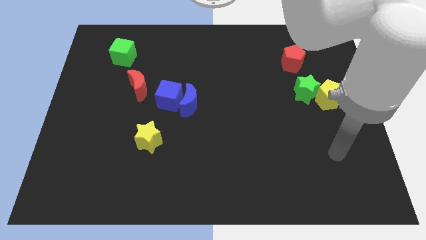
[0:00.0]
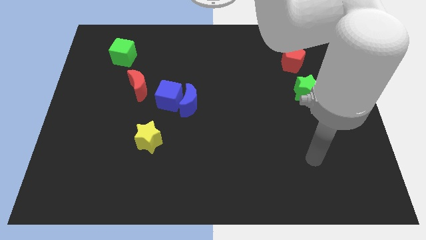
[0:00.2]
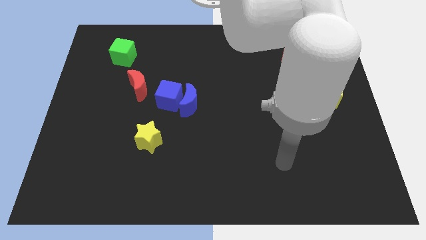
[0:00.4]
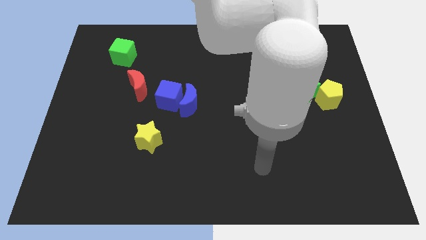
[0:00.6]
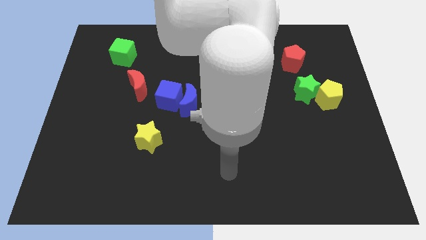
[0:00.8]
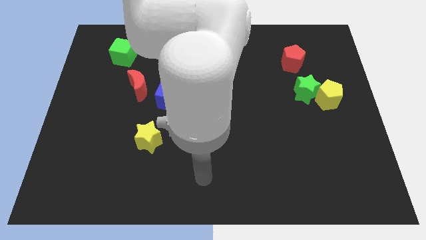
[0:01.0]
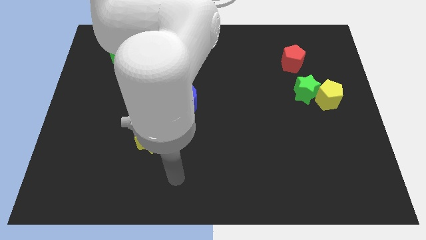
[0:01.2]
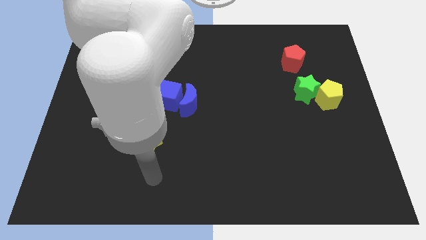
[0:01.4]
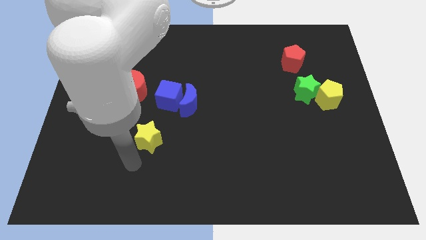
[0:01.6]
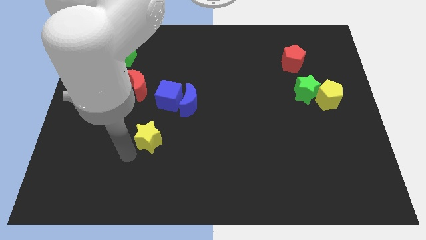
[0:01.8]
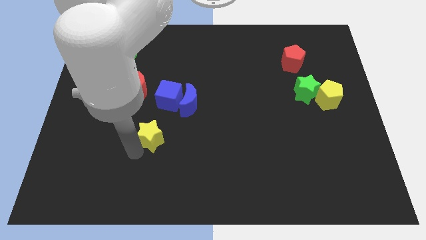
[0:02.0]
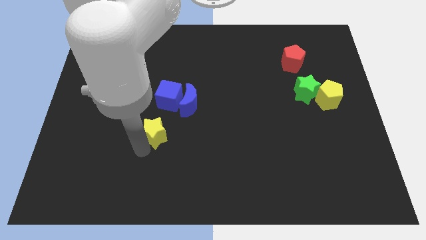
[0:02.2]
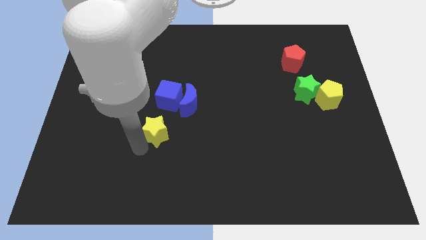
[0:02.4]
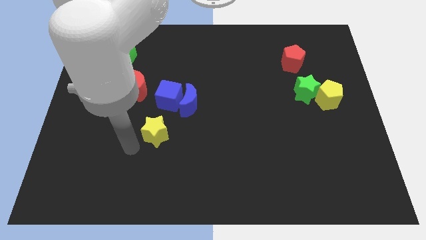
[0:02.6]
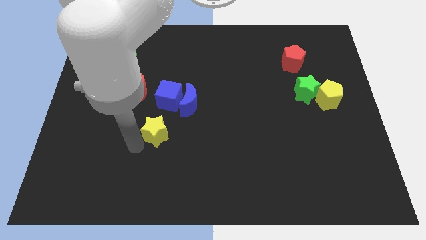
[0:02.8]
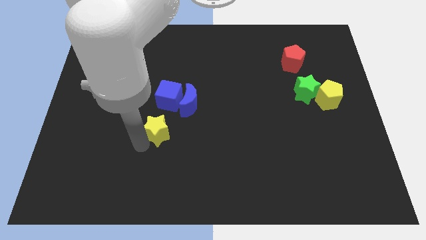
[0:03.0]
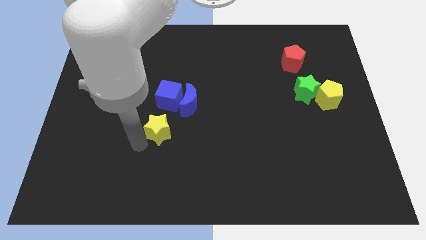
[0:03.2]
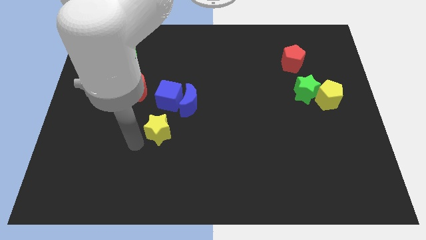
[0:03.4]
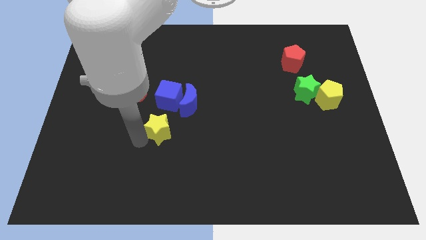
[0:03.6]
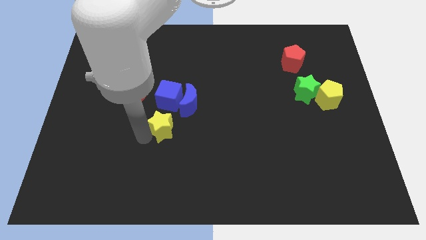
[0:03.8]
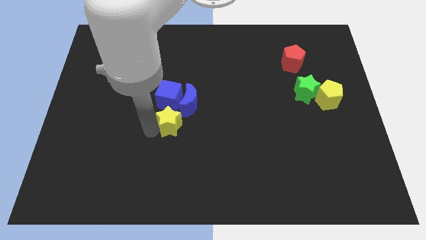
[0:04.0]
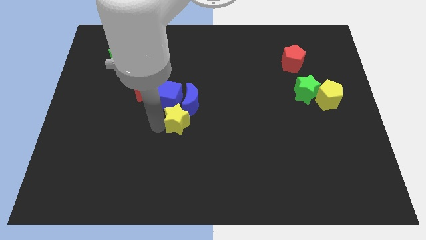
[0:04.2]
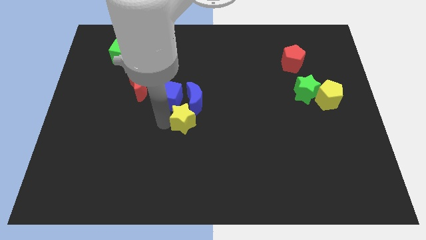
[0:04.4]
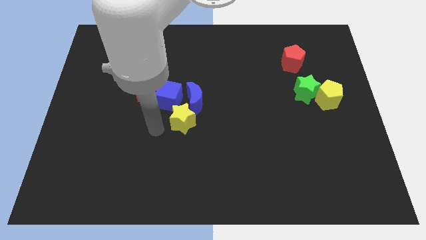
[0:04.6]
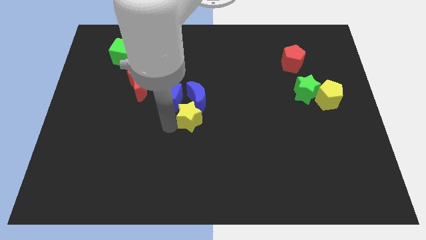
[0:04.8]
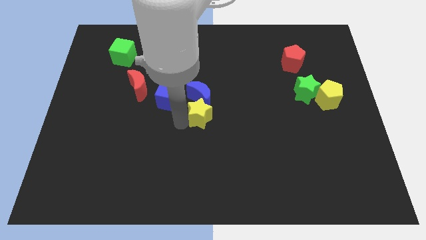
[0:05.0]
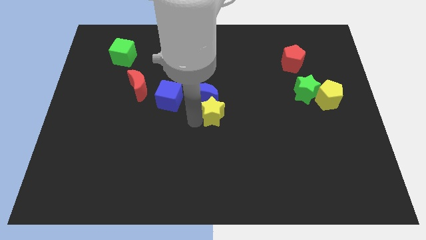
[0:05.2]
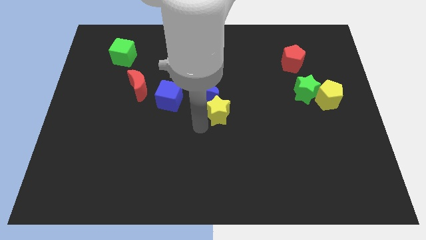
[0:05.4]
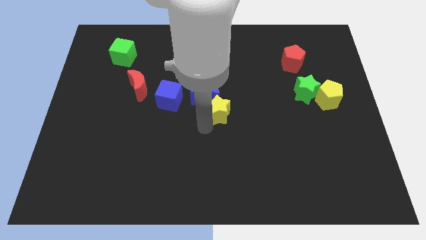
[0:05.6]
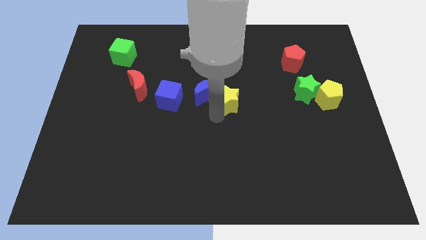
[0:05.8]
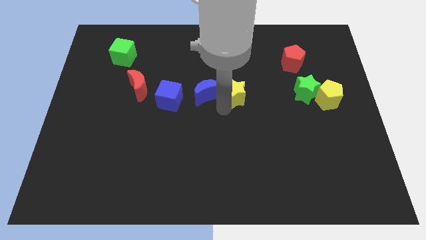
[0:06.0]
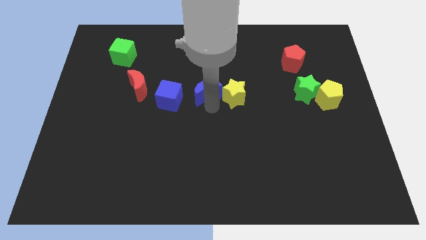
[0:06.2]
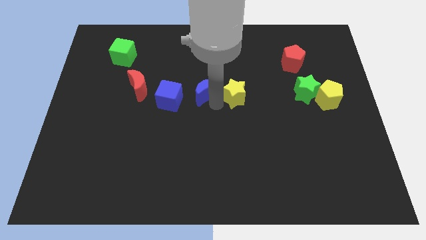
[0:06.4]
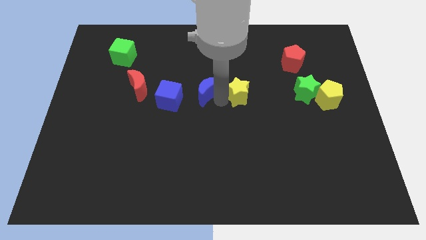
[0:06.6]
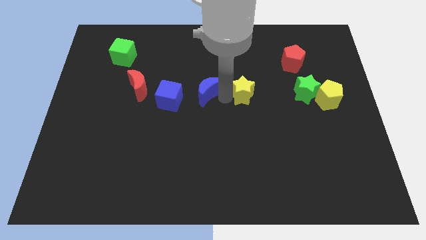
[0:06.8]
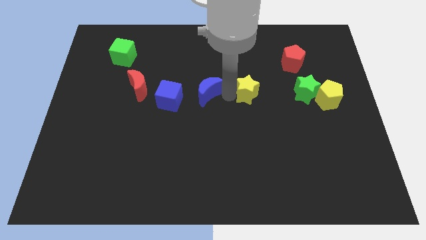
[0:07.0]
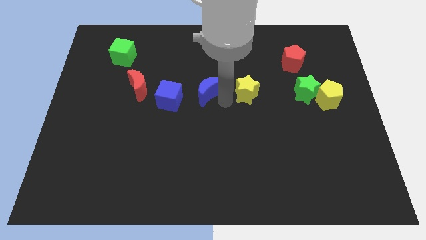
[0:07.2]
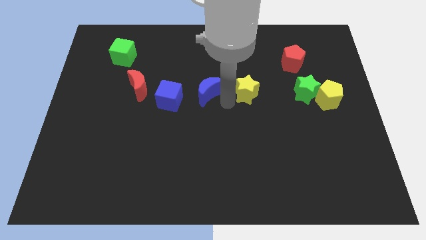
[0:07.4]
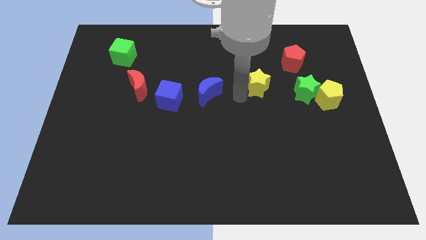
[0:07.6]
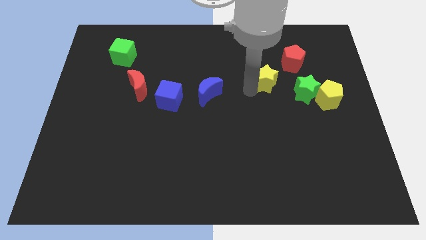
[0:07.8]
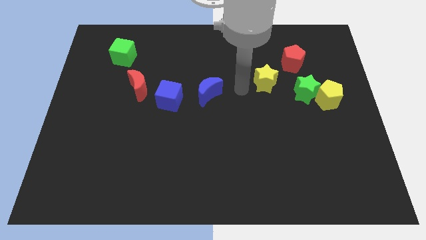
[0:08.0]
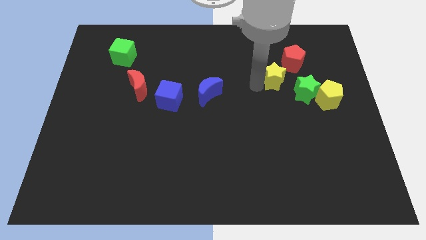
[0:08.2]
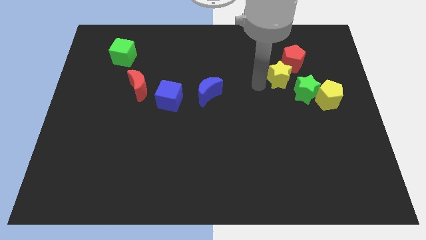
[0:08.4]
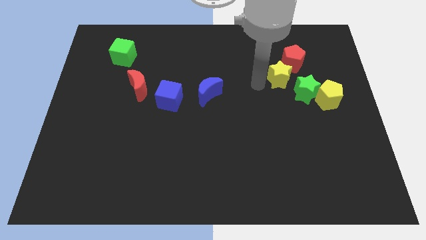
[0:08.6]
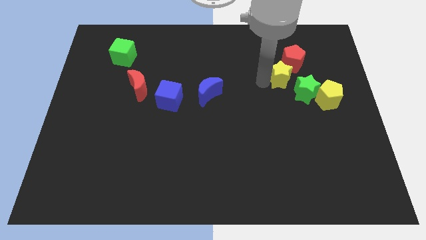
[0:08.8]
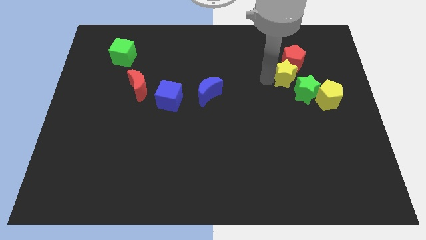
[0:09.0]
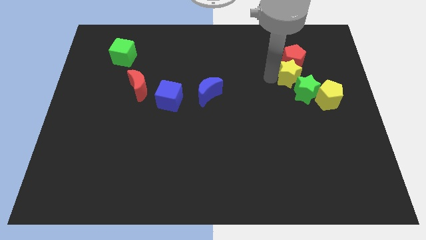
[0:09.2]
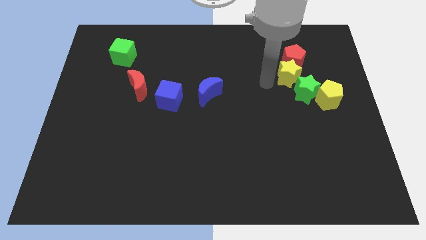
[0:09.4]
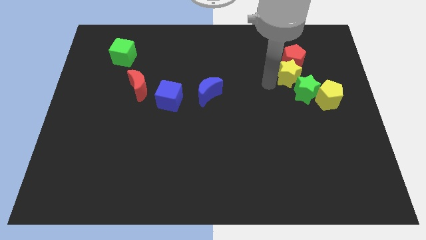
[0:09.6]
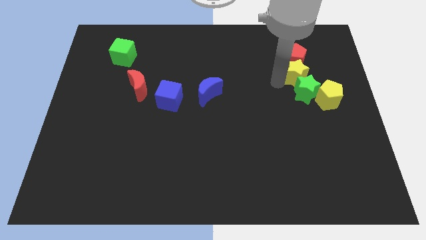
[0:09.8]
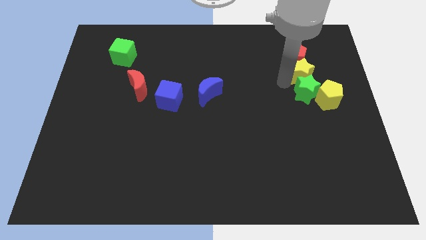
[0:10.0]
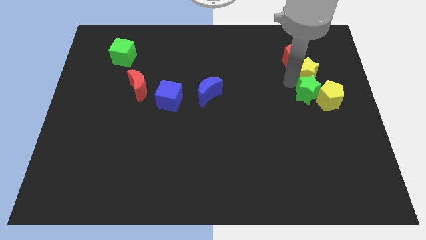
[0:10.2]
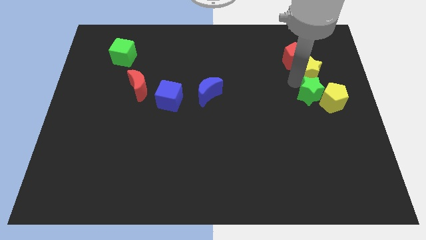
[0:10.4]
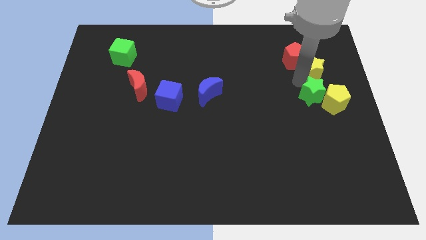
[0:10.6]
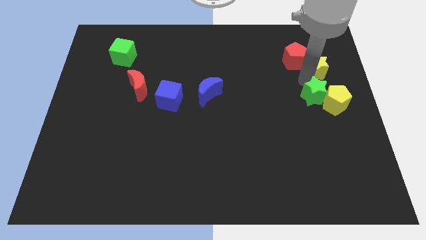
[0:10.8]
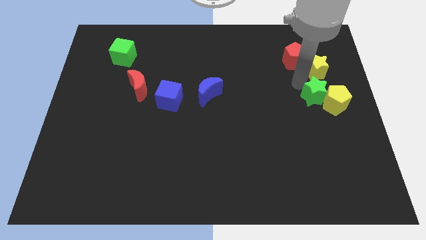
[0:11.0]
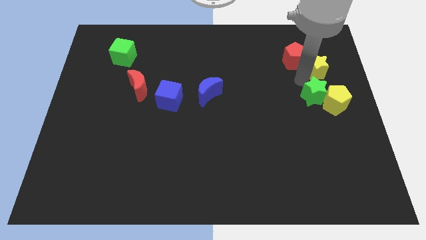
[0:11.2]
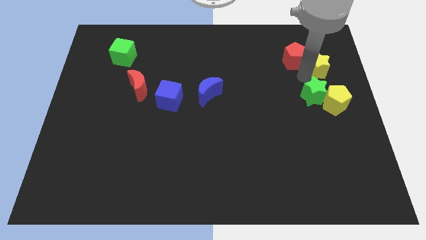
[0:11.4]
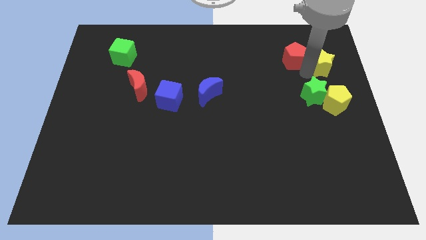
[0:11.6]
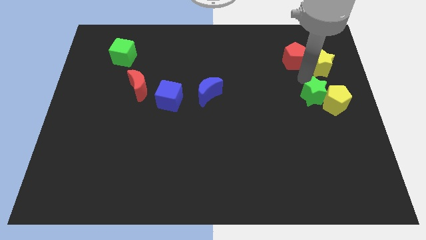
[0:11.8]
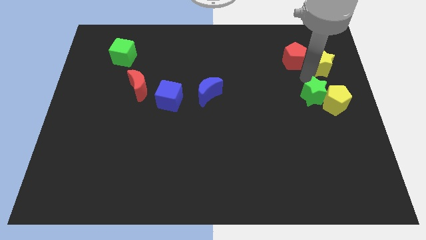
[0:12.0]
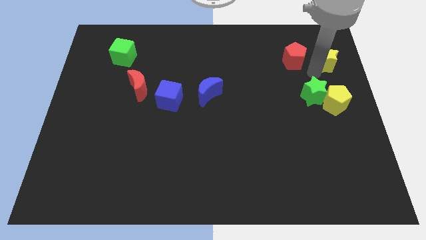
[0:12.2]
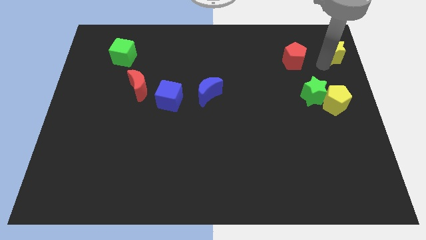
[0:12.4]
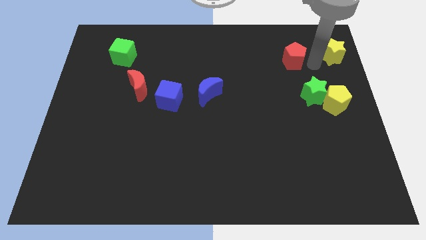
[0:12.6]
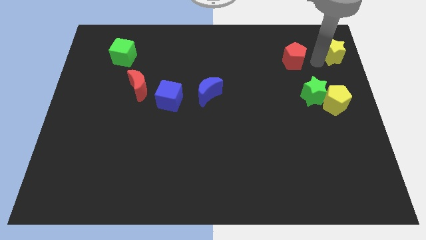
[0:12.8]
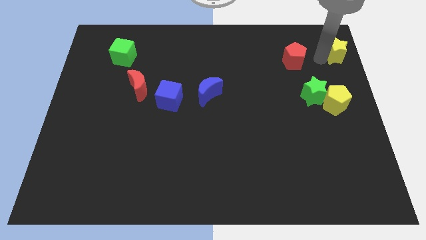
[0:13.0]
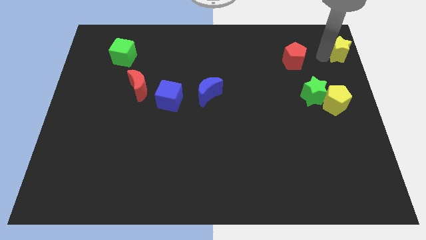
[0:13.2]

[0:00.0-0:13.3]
move the yellow star to the top right of the board
